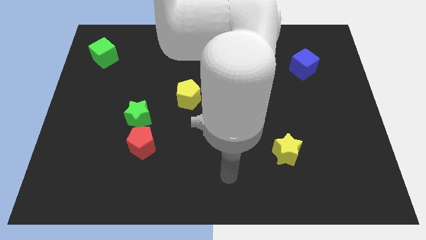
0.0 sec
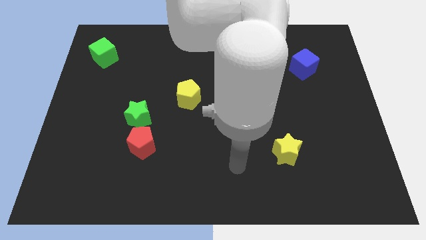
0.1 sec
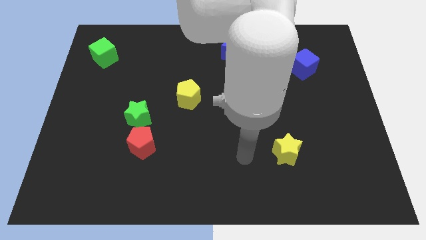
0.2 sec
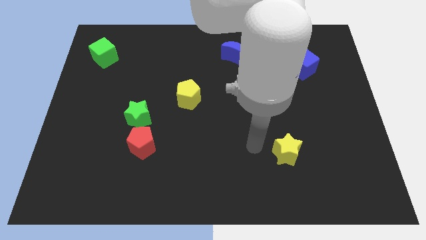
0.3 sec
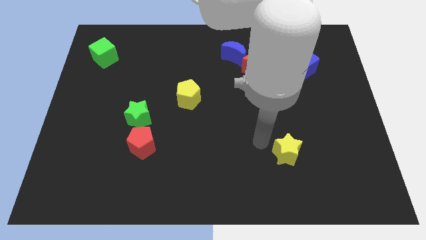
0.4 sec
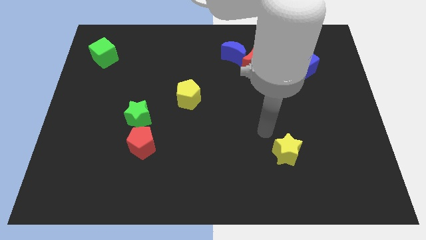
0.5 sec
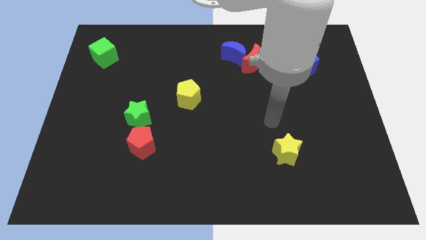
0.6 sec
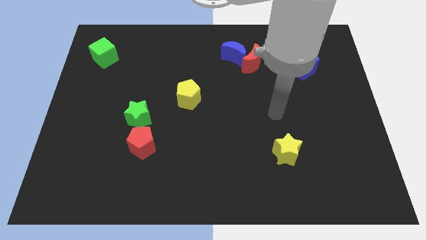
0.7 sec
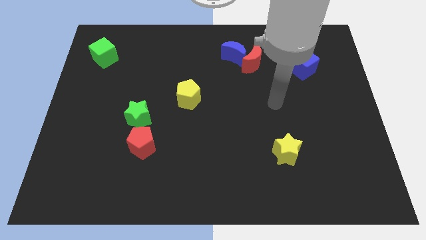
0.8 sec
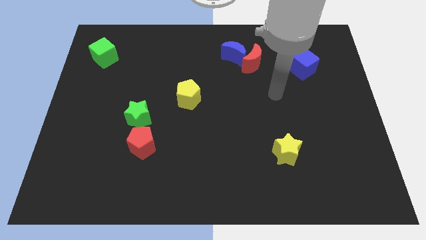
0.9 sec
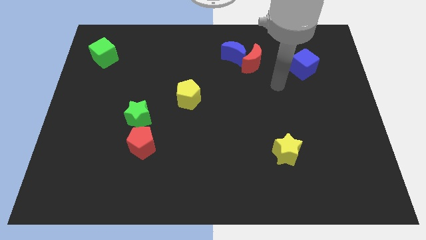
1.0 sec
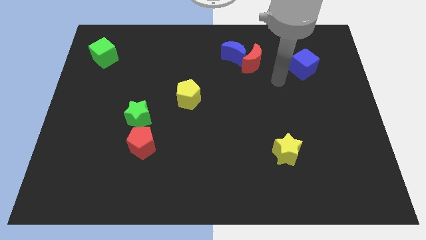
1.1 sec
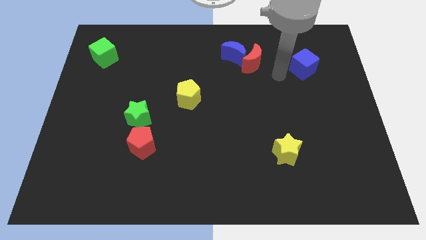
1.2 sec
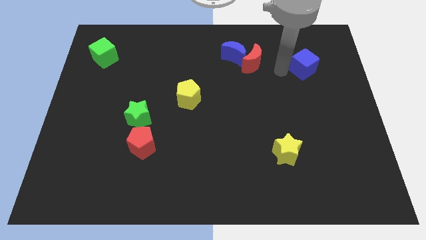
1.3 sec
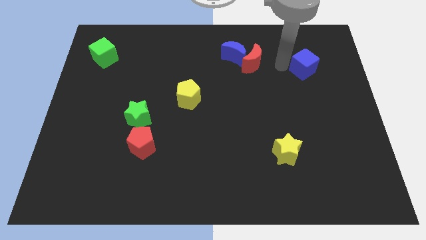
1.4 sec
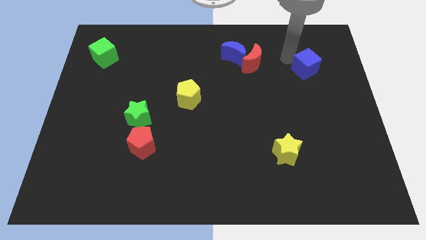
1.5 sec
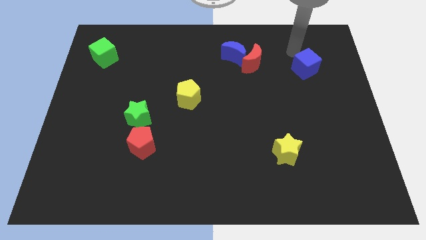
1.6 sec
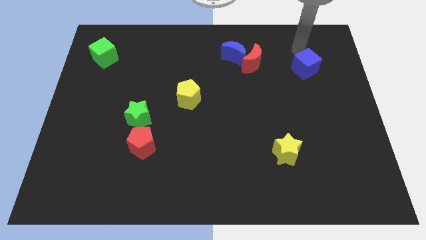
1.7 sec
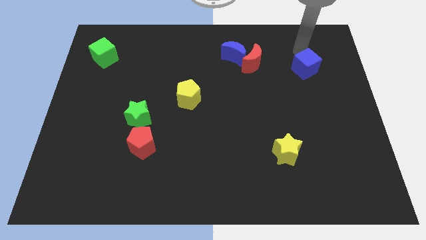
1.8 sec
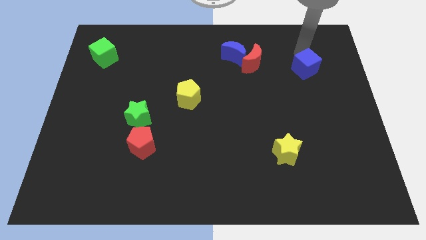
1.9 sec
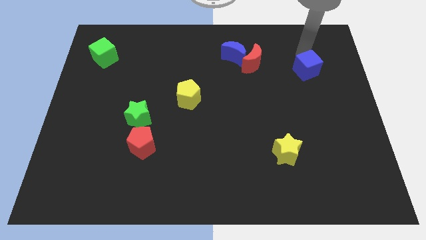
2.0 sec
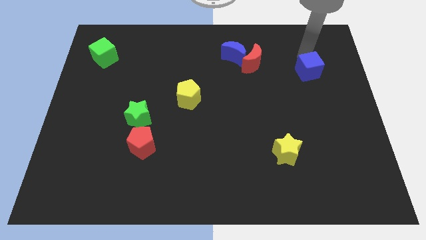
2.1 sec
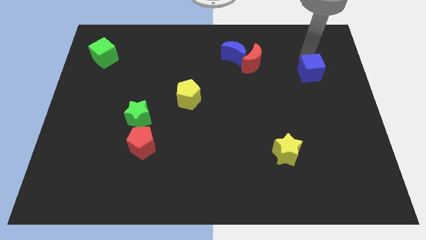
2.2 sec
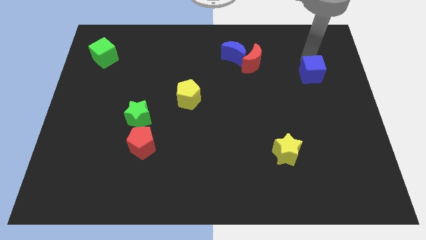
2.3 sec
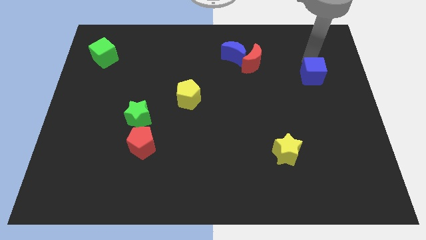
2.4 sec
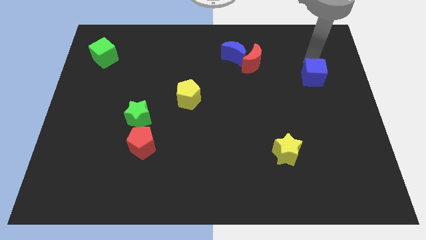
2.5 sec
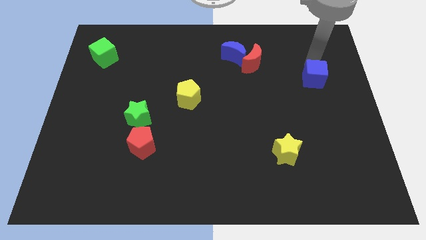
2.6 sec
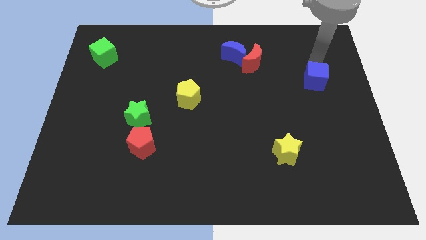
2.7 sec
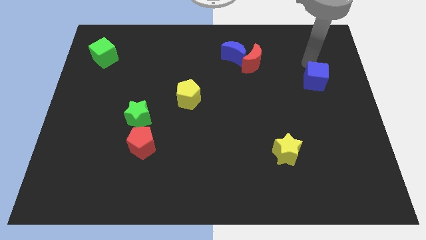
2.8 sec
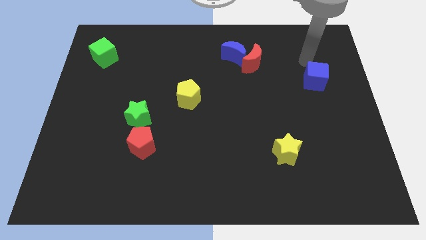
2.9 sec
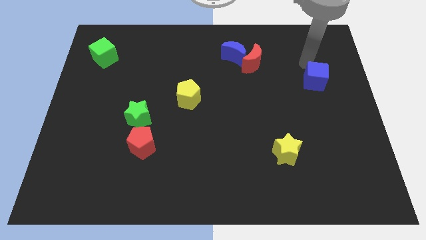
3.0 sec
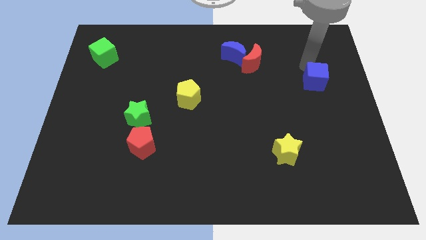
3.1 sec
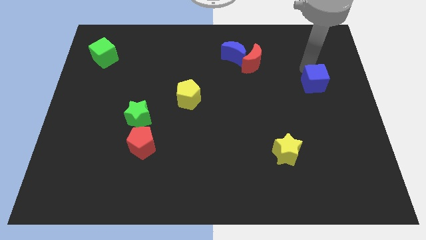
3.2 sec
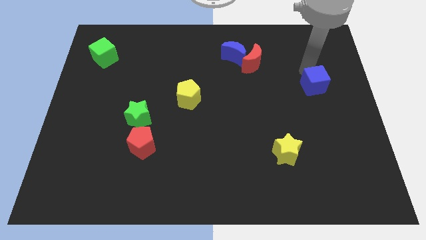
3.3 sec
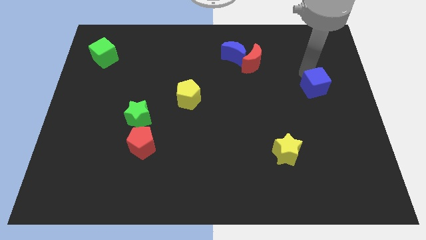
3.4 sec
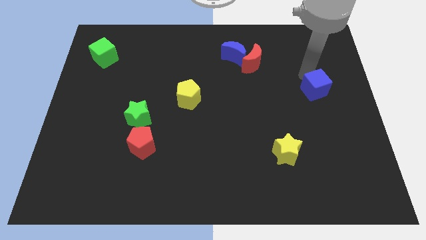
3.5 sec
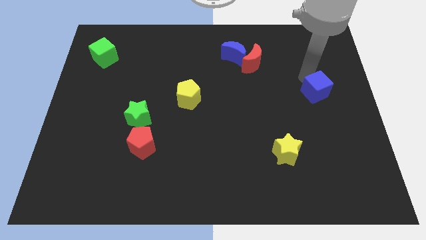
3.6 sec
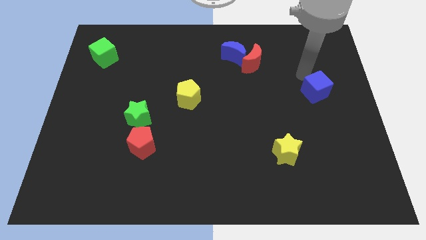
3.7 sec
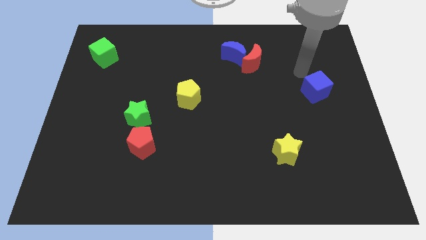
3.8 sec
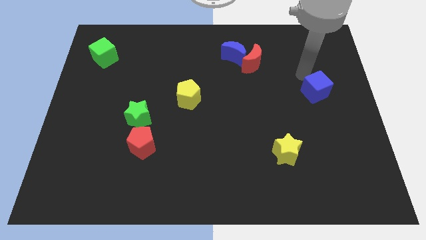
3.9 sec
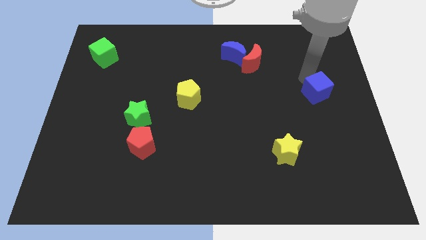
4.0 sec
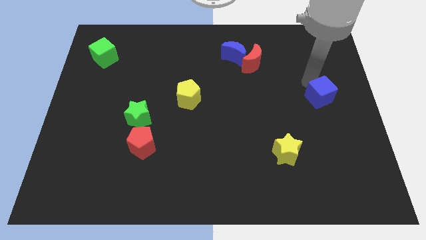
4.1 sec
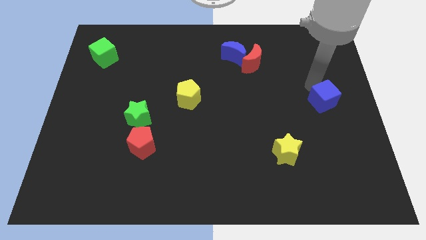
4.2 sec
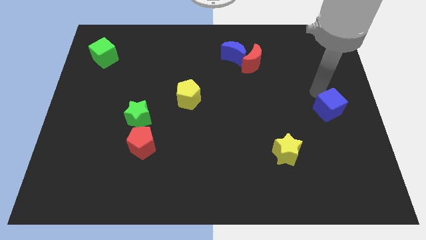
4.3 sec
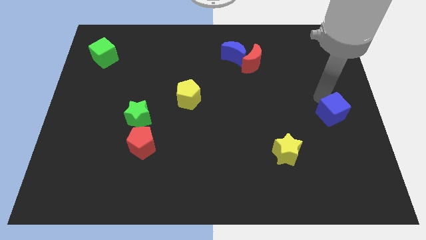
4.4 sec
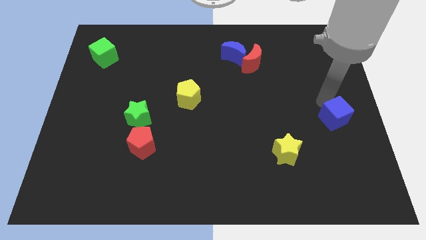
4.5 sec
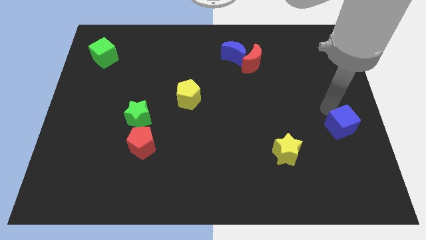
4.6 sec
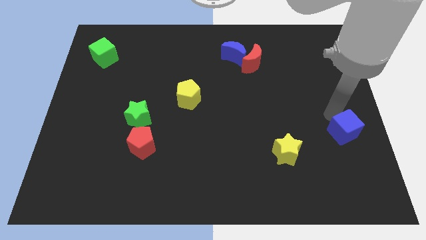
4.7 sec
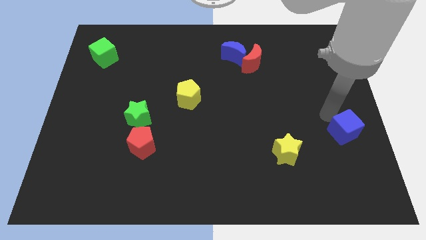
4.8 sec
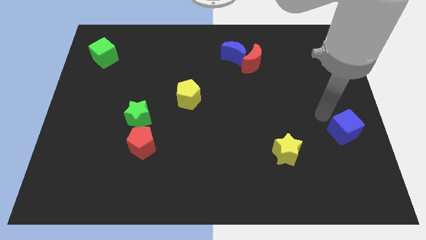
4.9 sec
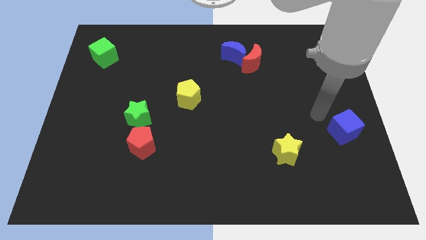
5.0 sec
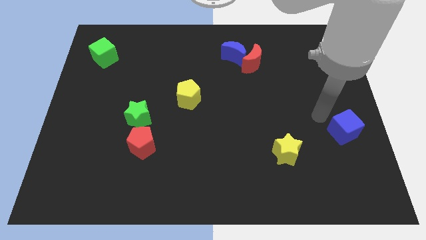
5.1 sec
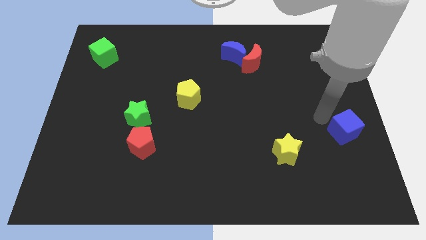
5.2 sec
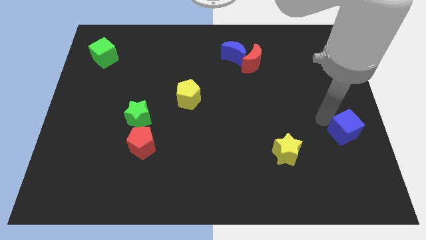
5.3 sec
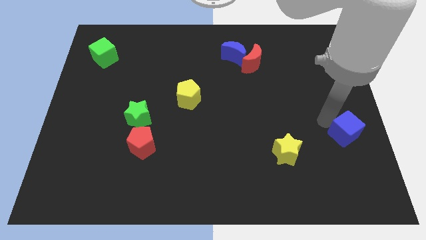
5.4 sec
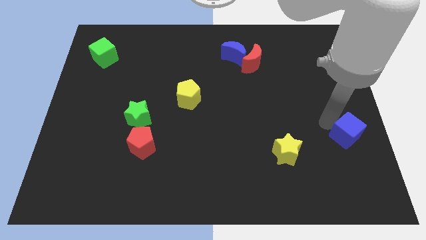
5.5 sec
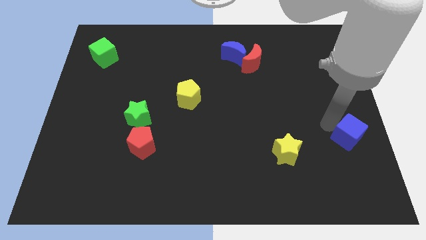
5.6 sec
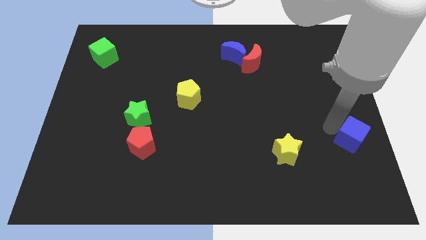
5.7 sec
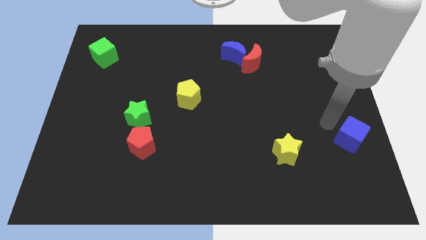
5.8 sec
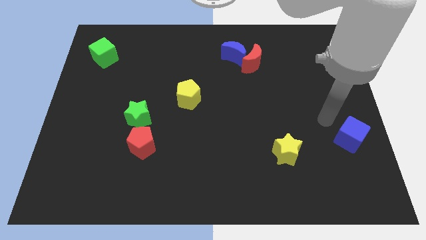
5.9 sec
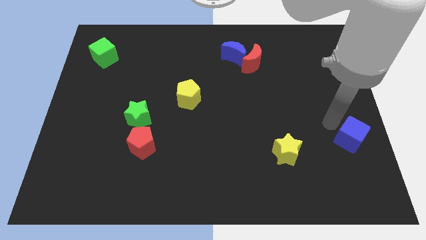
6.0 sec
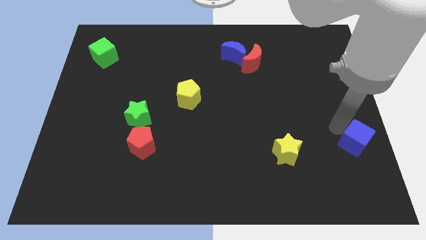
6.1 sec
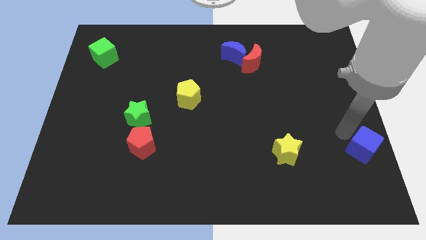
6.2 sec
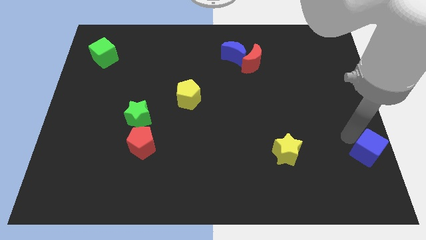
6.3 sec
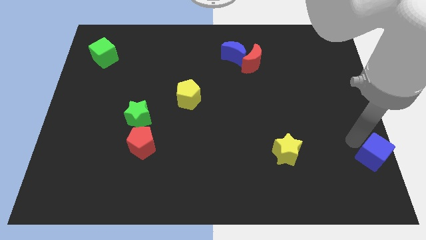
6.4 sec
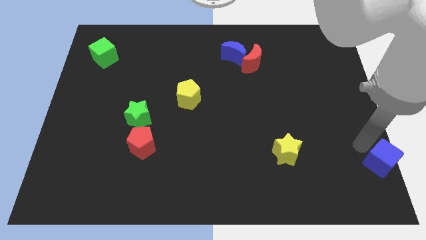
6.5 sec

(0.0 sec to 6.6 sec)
put the blue cube to the lower right corner
